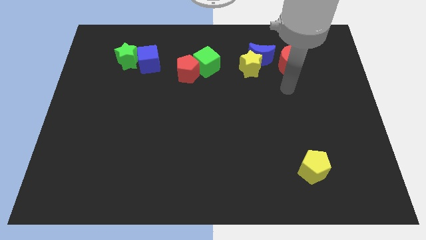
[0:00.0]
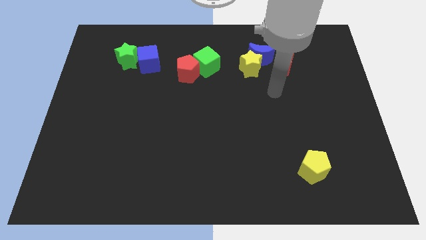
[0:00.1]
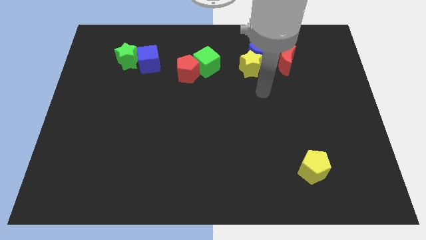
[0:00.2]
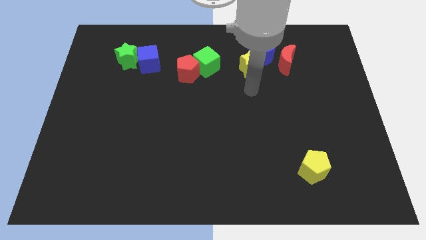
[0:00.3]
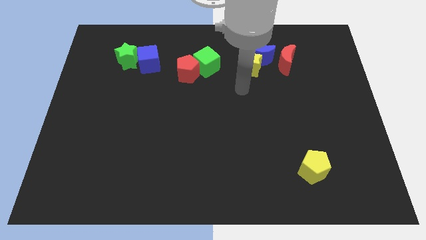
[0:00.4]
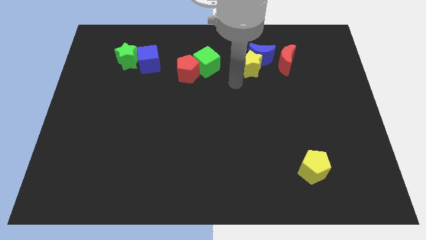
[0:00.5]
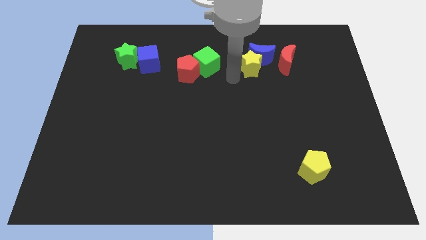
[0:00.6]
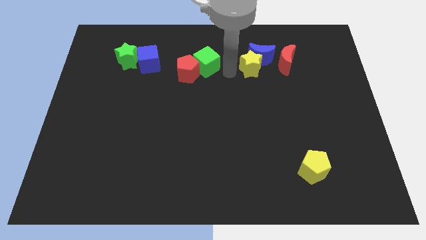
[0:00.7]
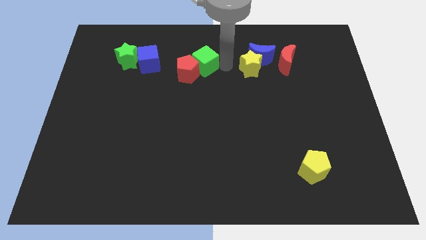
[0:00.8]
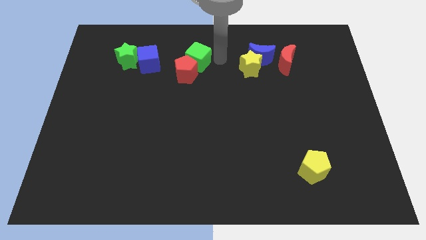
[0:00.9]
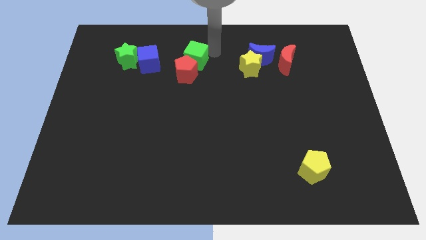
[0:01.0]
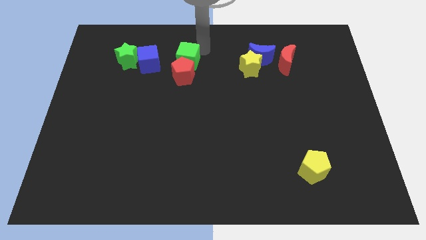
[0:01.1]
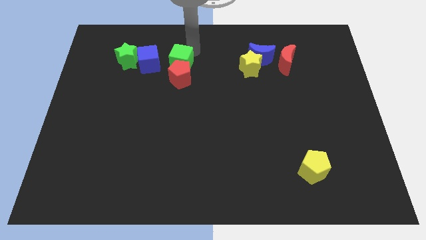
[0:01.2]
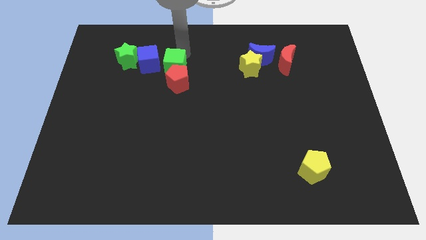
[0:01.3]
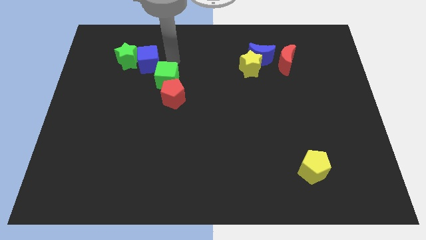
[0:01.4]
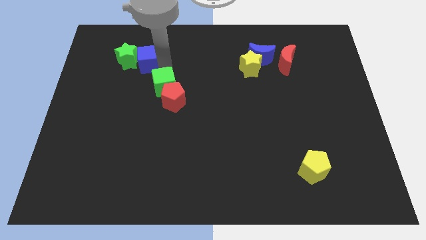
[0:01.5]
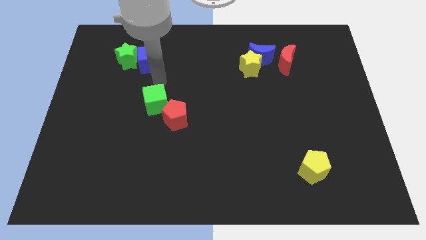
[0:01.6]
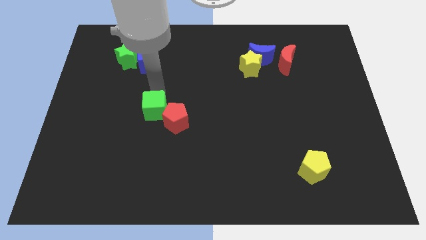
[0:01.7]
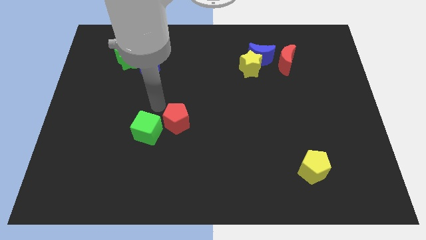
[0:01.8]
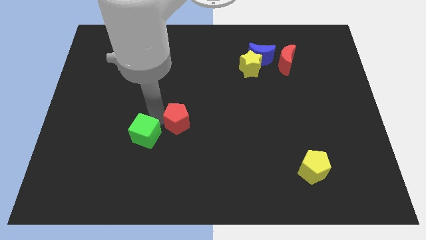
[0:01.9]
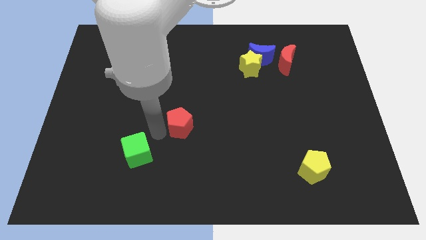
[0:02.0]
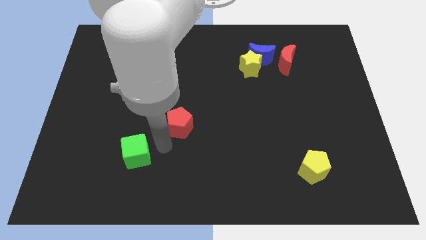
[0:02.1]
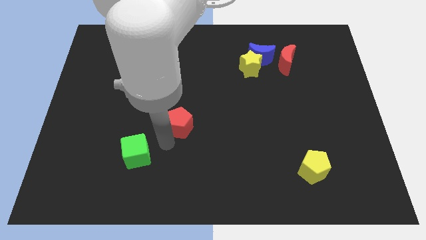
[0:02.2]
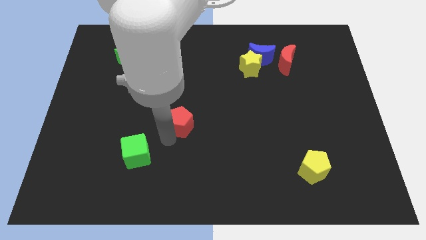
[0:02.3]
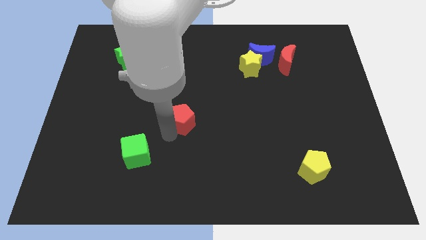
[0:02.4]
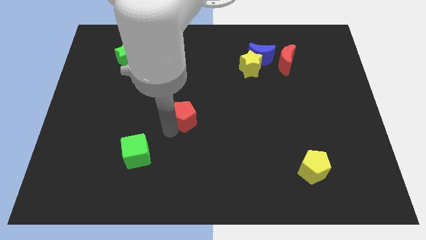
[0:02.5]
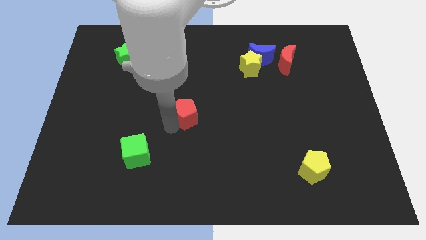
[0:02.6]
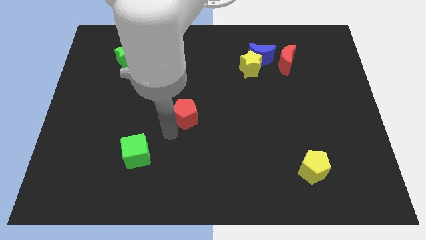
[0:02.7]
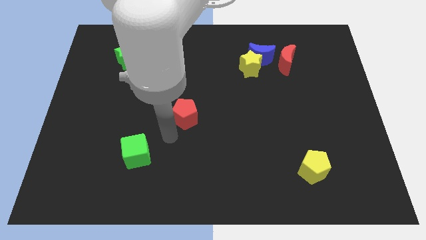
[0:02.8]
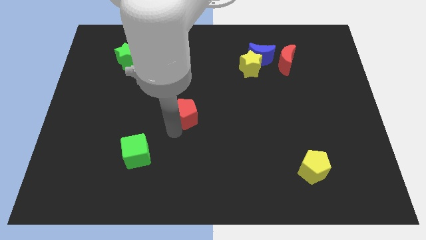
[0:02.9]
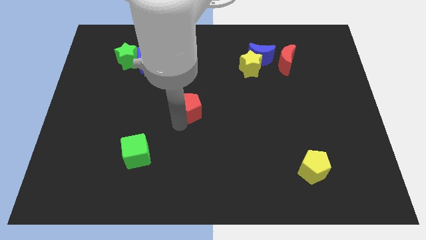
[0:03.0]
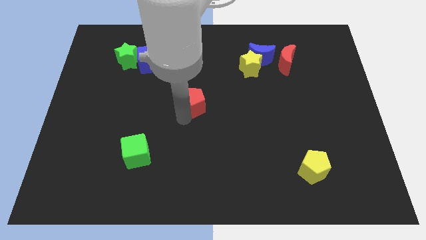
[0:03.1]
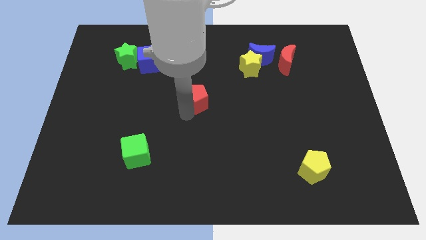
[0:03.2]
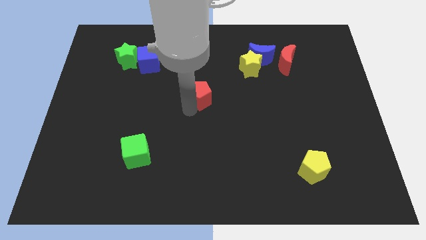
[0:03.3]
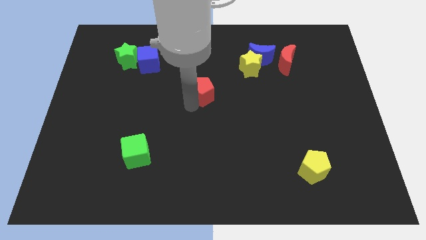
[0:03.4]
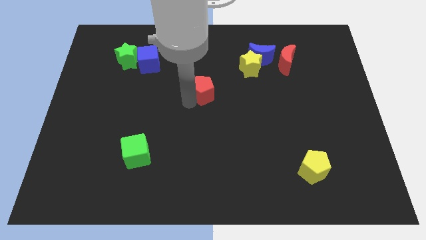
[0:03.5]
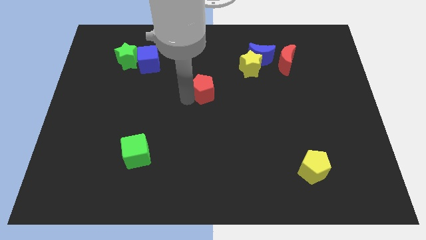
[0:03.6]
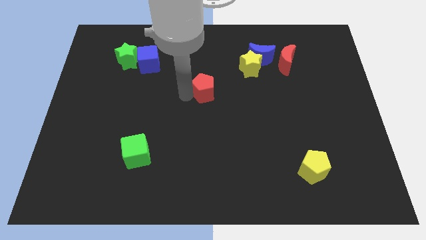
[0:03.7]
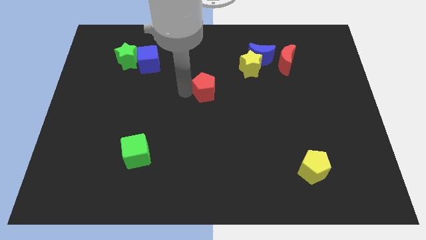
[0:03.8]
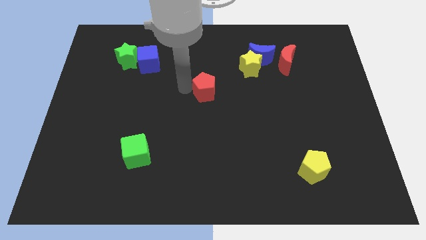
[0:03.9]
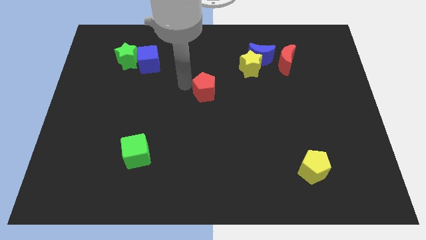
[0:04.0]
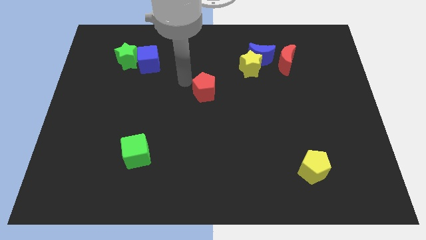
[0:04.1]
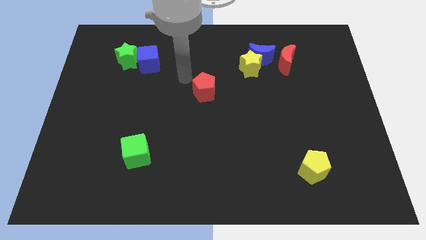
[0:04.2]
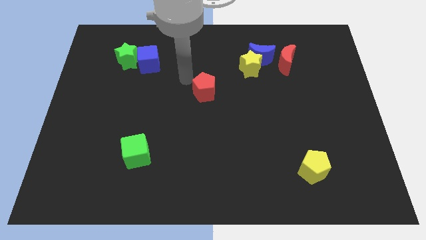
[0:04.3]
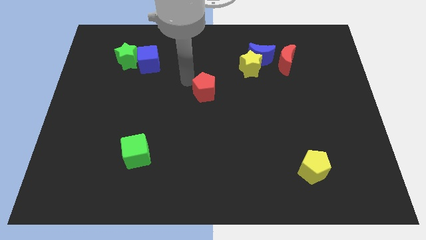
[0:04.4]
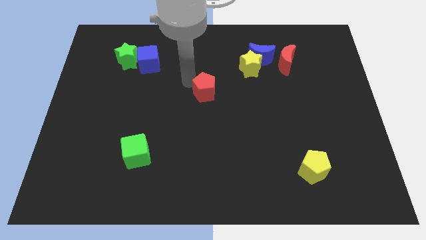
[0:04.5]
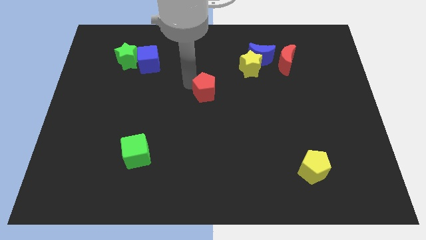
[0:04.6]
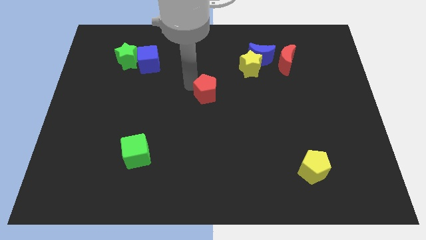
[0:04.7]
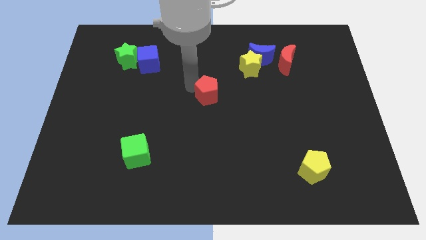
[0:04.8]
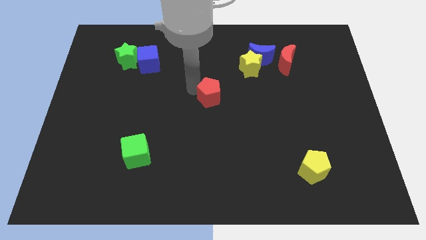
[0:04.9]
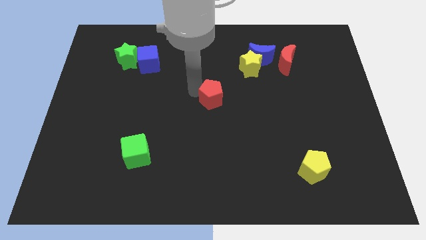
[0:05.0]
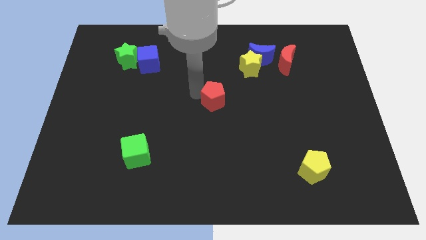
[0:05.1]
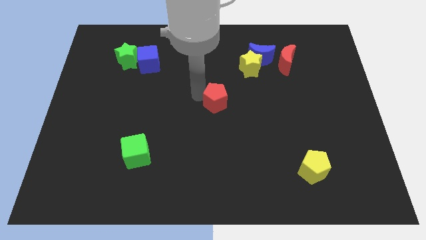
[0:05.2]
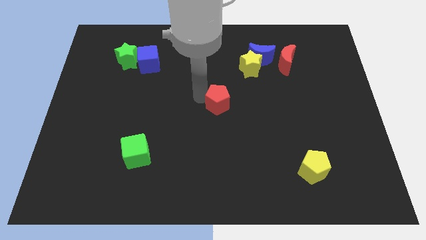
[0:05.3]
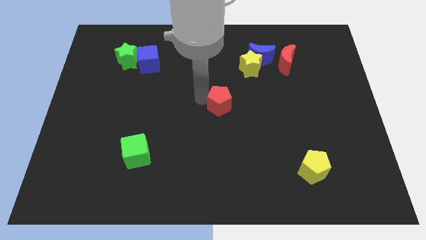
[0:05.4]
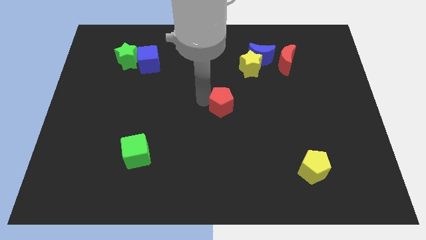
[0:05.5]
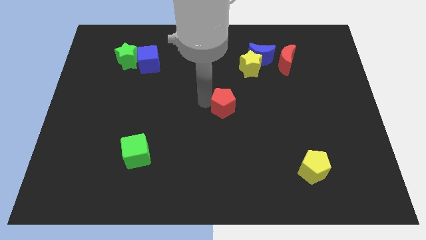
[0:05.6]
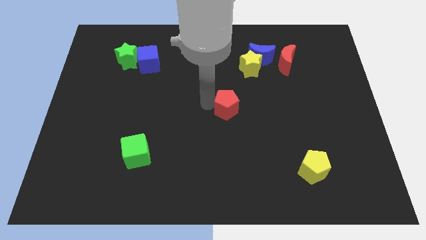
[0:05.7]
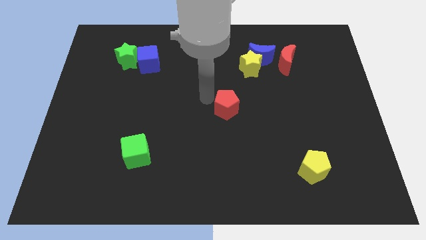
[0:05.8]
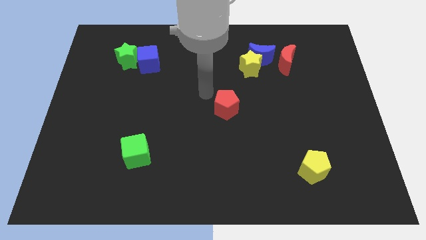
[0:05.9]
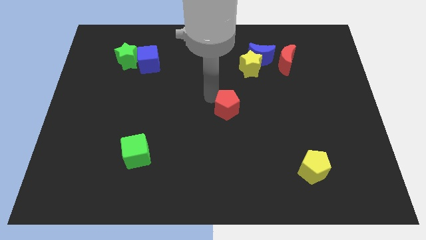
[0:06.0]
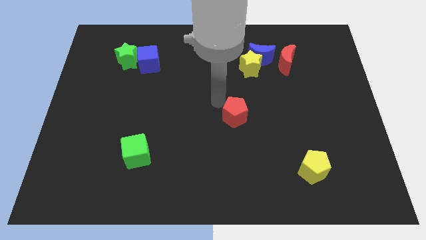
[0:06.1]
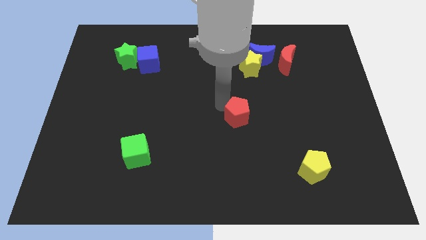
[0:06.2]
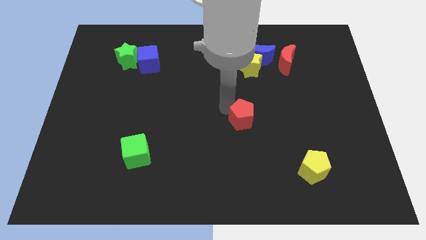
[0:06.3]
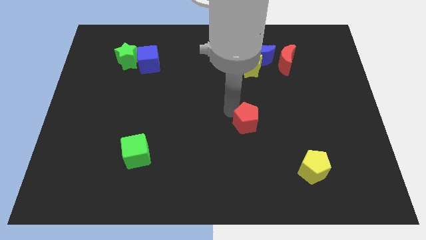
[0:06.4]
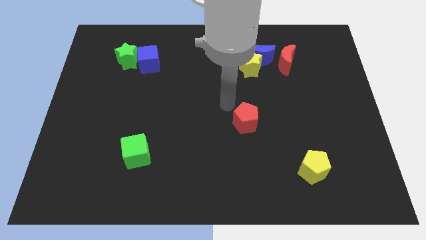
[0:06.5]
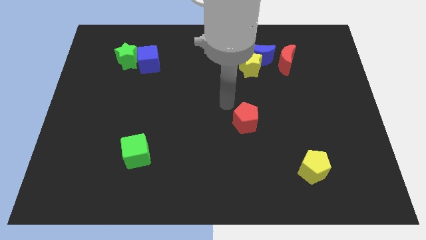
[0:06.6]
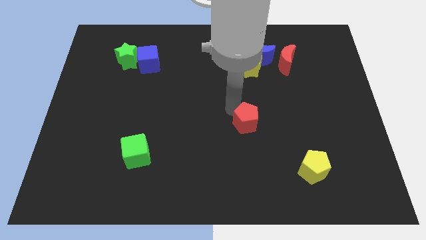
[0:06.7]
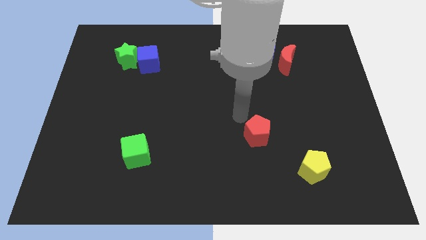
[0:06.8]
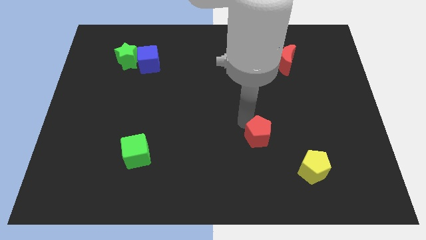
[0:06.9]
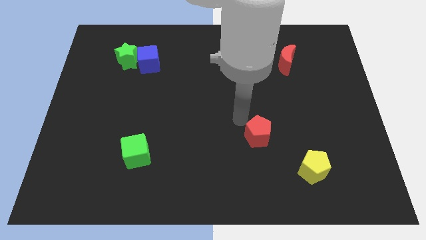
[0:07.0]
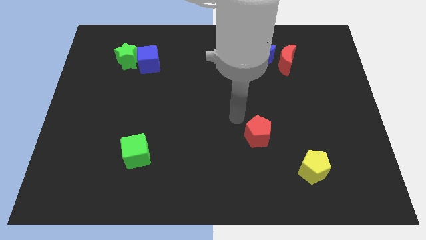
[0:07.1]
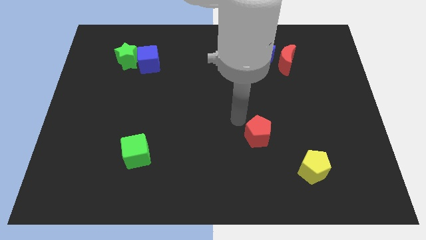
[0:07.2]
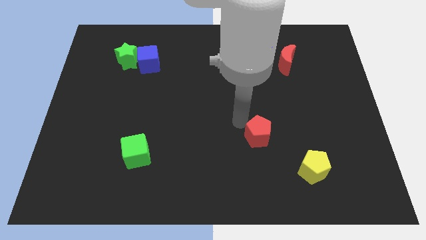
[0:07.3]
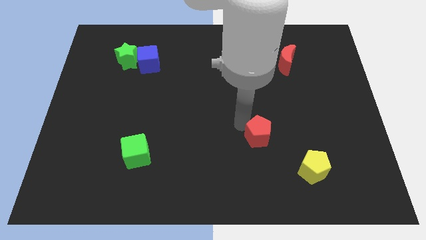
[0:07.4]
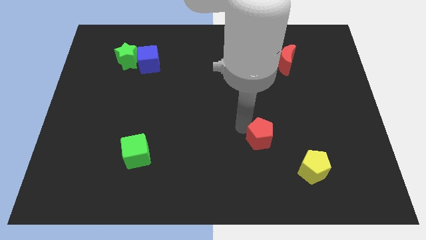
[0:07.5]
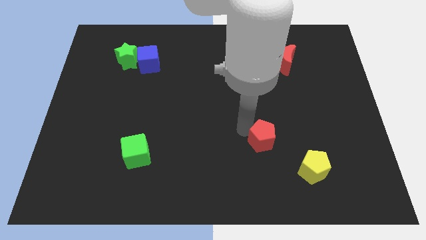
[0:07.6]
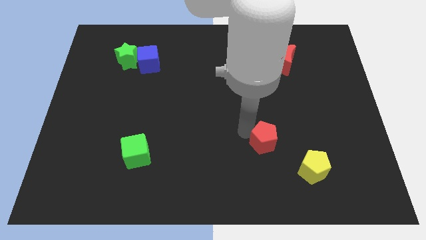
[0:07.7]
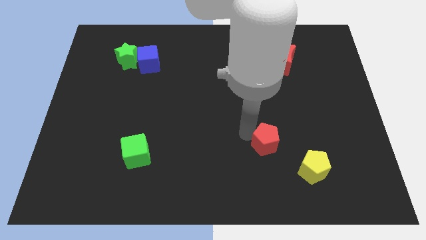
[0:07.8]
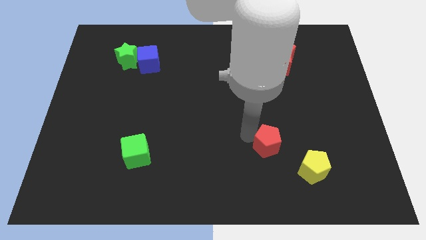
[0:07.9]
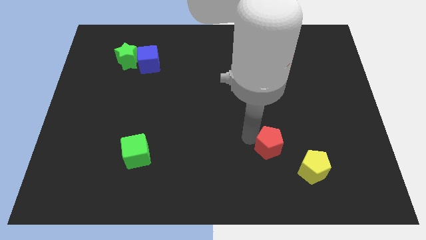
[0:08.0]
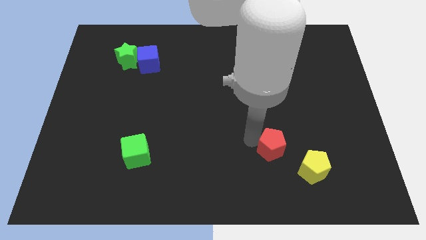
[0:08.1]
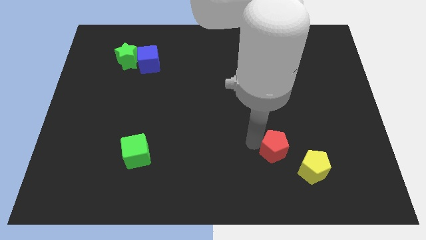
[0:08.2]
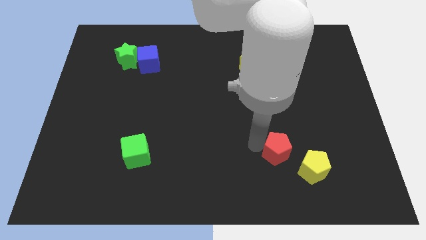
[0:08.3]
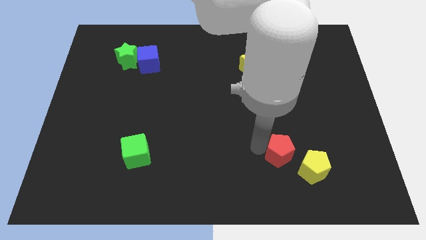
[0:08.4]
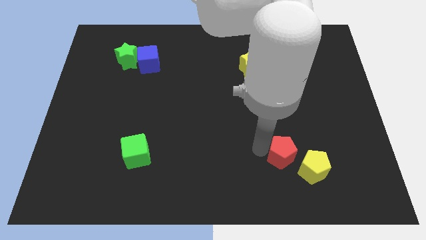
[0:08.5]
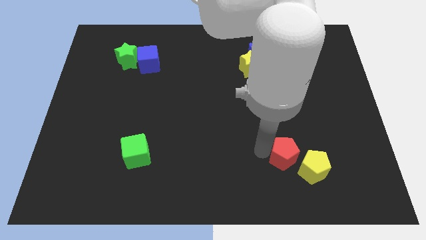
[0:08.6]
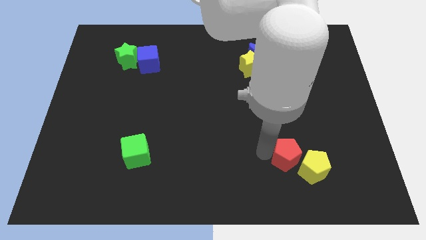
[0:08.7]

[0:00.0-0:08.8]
slide the red pentagon towards the yellow pentagon
